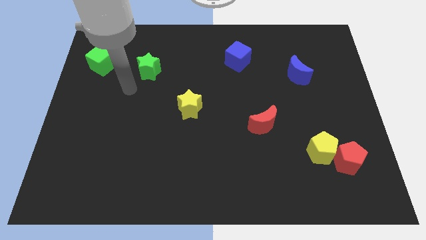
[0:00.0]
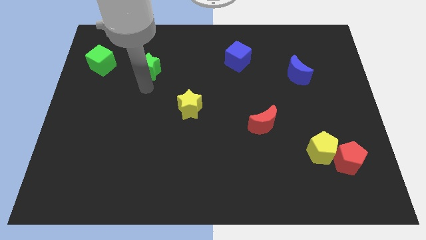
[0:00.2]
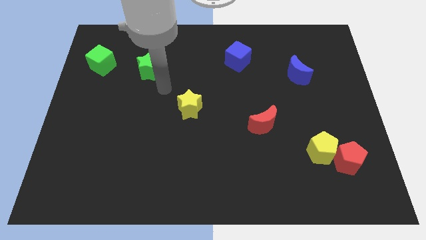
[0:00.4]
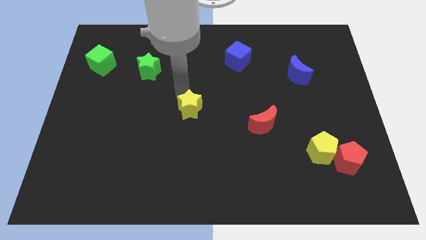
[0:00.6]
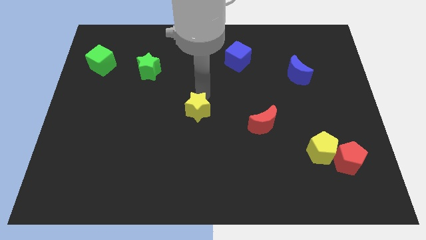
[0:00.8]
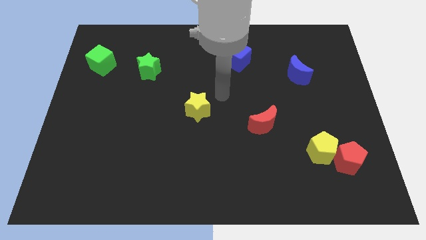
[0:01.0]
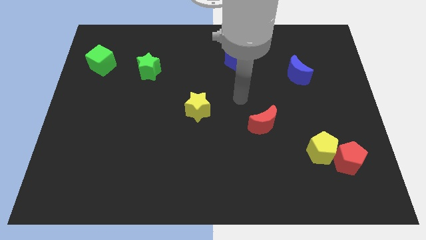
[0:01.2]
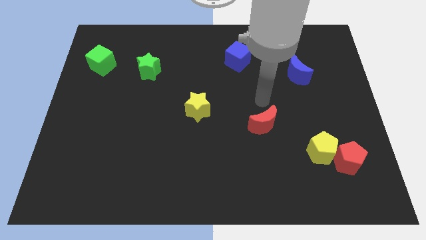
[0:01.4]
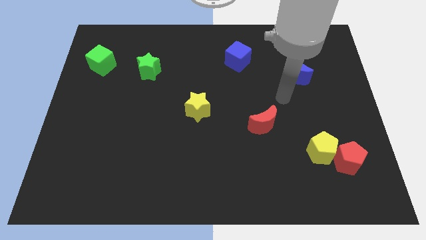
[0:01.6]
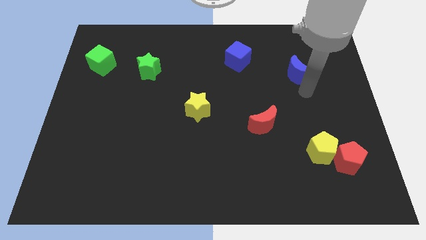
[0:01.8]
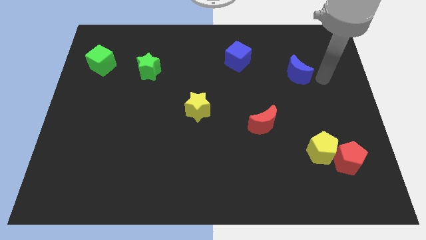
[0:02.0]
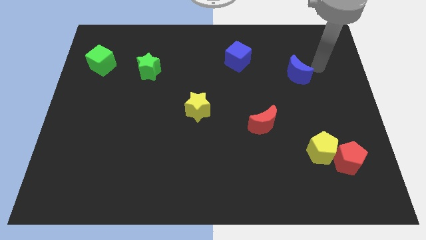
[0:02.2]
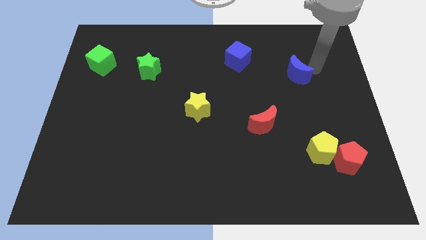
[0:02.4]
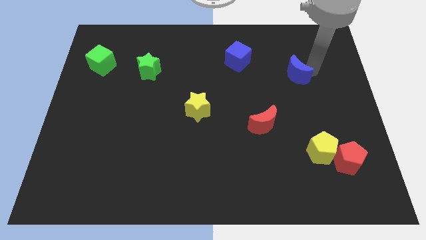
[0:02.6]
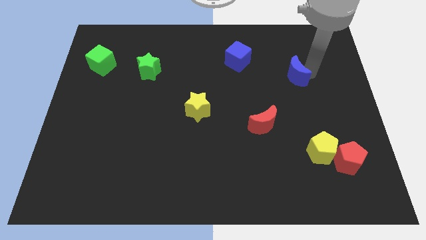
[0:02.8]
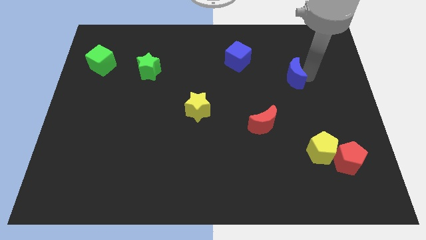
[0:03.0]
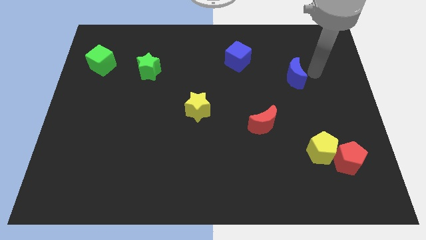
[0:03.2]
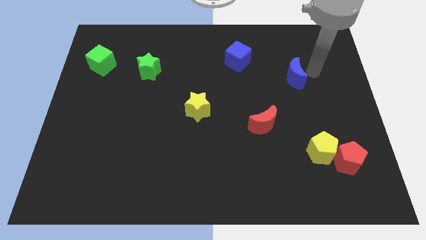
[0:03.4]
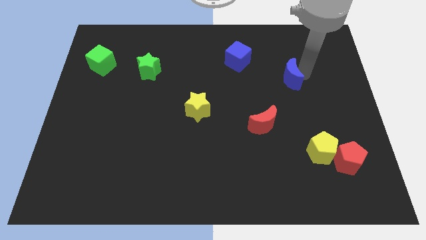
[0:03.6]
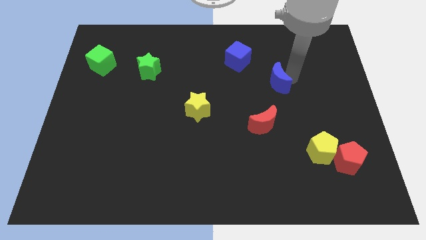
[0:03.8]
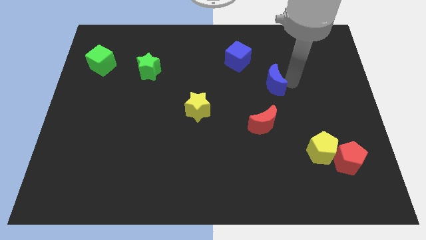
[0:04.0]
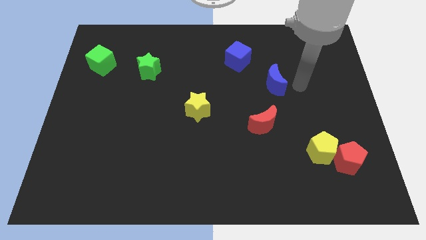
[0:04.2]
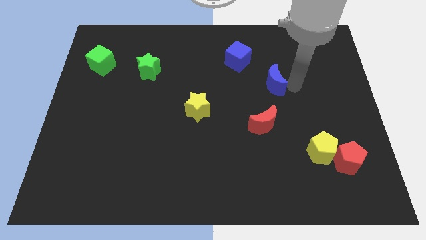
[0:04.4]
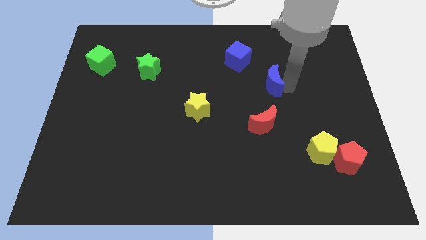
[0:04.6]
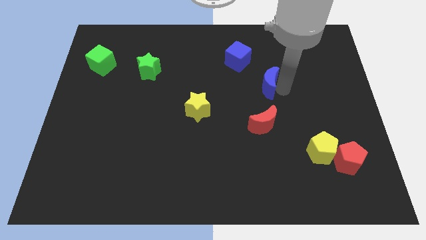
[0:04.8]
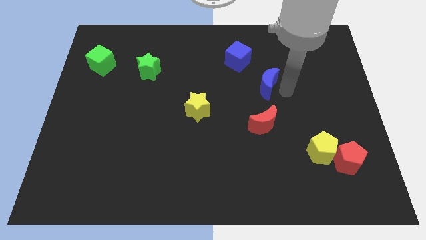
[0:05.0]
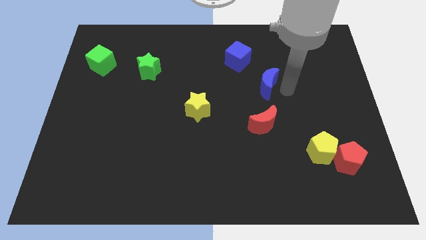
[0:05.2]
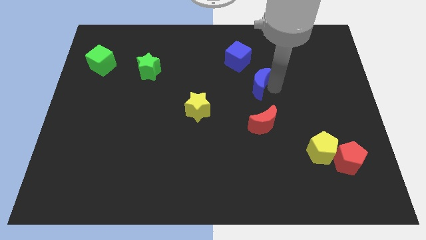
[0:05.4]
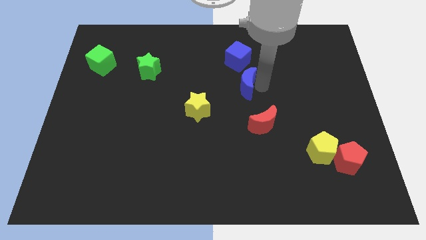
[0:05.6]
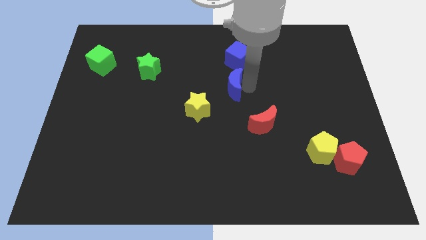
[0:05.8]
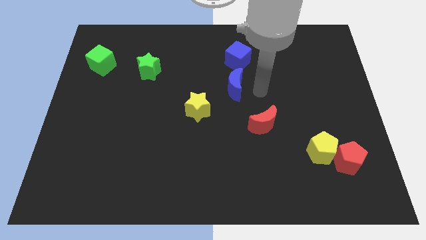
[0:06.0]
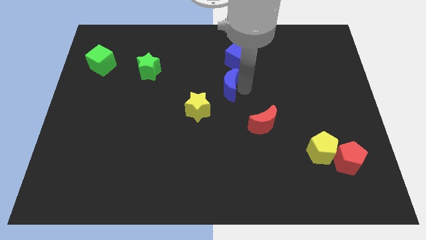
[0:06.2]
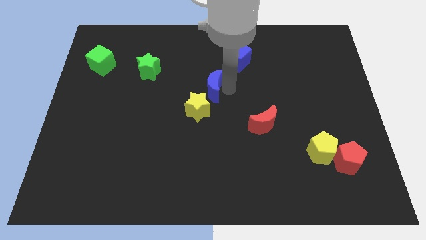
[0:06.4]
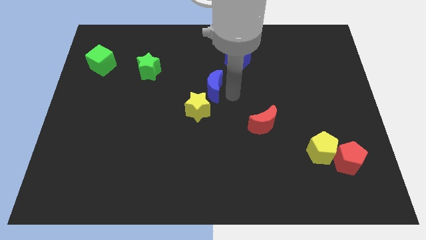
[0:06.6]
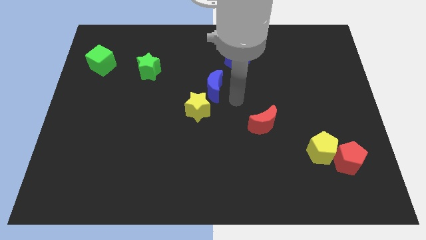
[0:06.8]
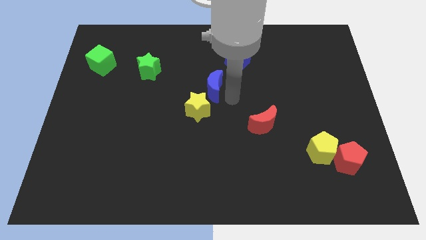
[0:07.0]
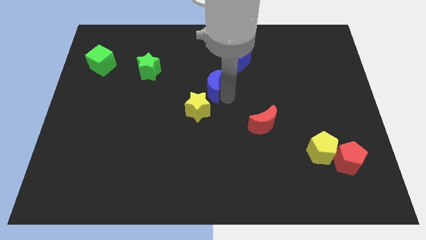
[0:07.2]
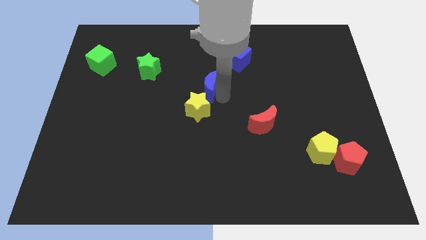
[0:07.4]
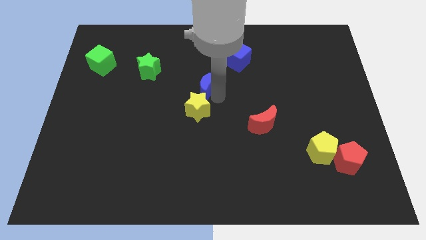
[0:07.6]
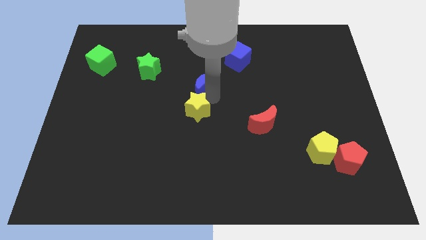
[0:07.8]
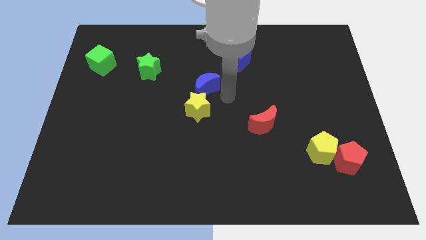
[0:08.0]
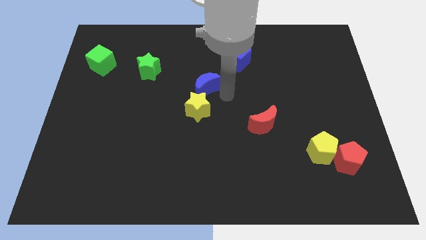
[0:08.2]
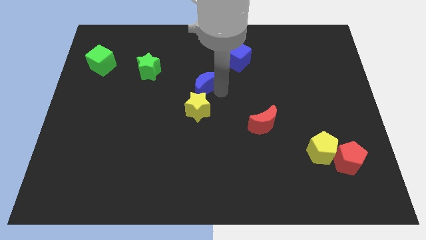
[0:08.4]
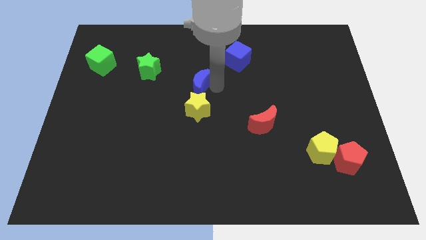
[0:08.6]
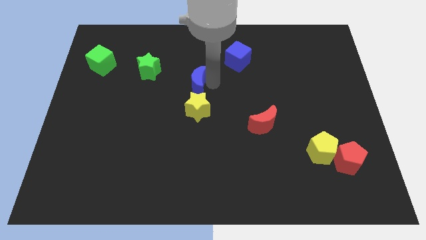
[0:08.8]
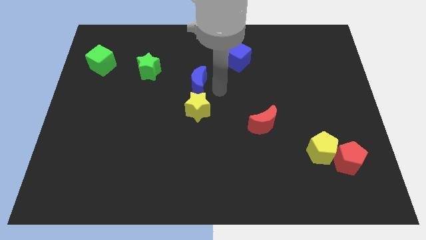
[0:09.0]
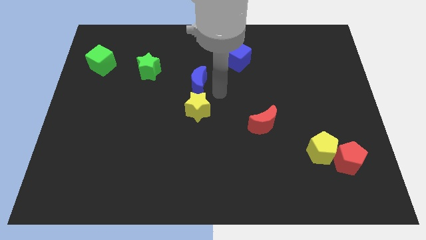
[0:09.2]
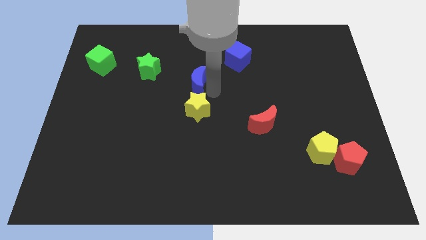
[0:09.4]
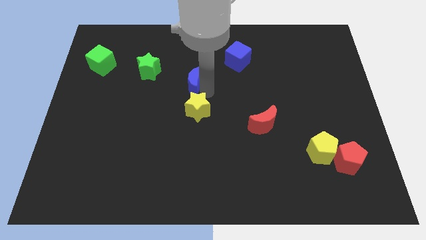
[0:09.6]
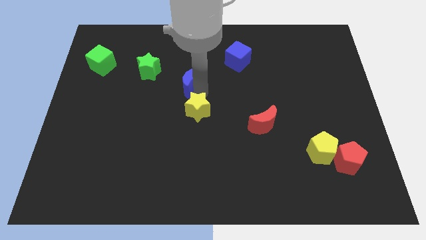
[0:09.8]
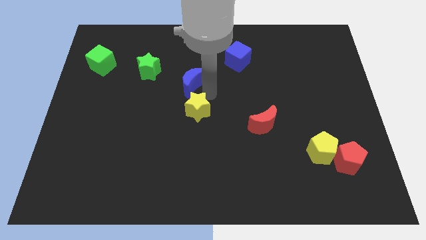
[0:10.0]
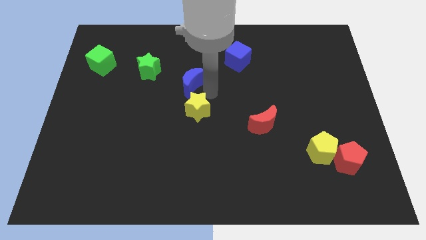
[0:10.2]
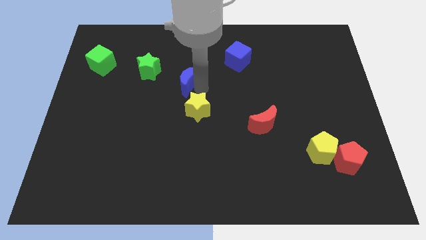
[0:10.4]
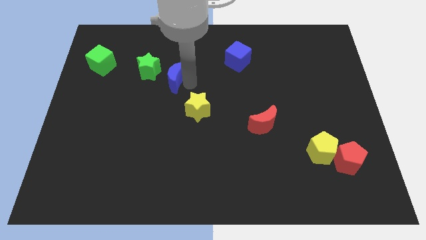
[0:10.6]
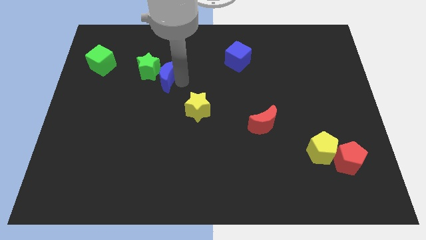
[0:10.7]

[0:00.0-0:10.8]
move the blue moon close to the green star

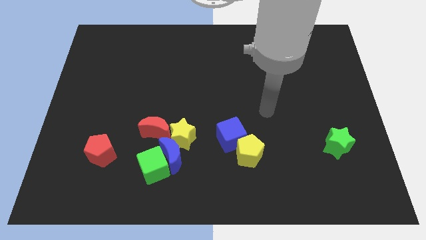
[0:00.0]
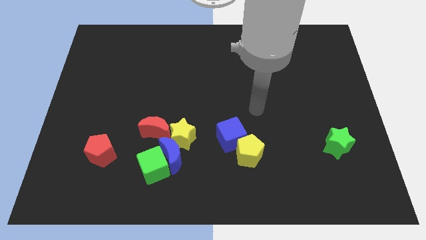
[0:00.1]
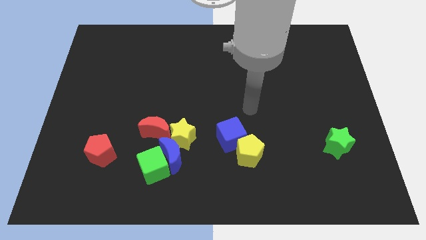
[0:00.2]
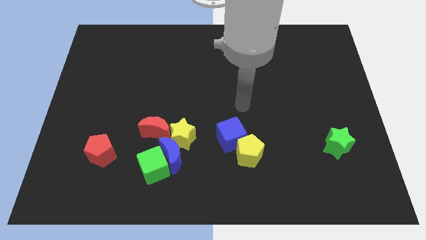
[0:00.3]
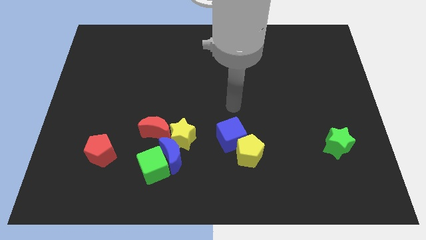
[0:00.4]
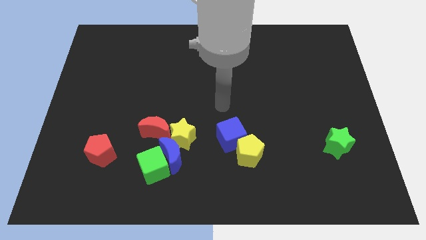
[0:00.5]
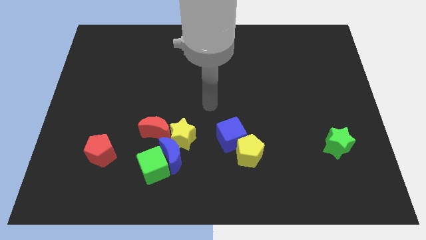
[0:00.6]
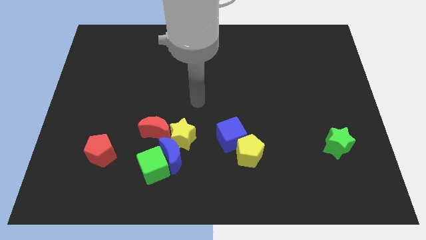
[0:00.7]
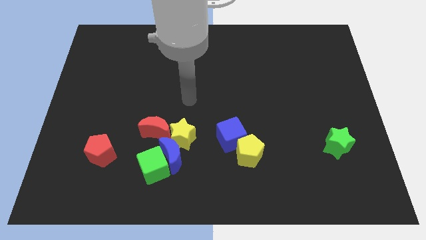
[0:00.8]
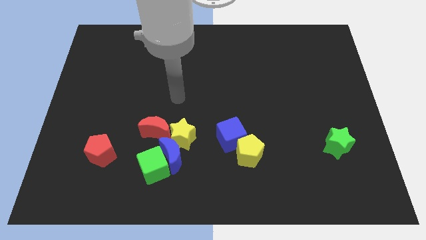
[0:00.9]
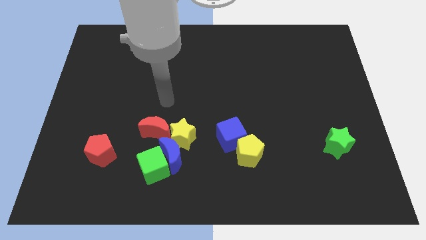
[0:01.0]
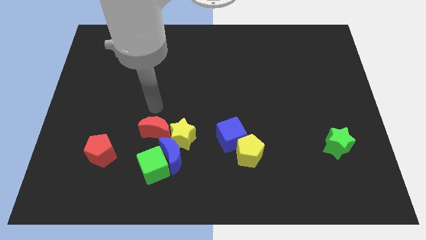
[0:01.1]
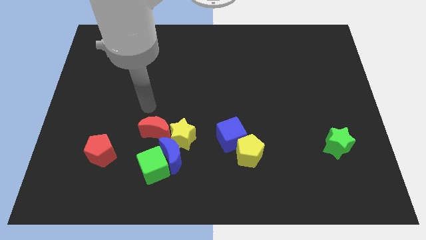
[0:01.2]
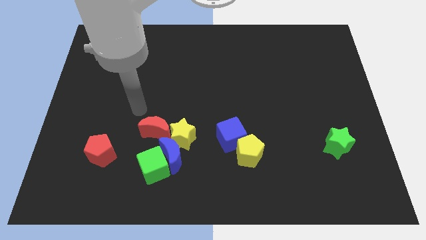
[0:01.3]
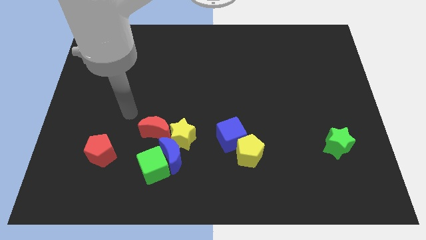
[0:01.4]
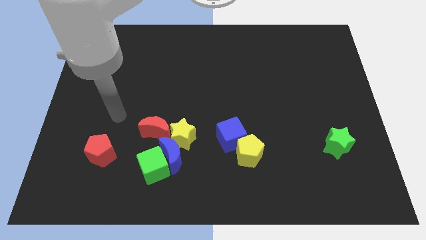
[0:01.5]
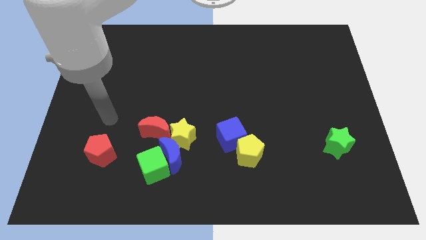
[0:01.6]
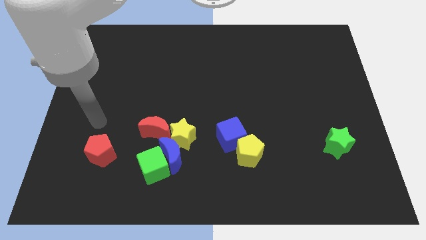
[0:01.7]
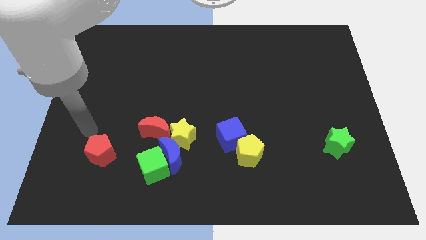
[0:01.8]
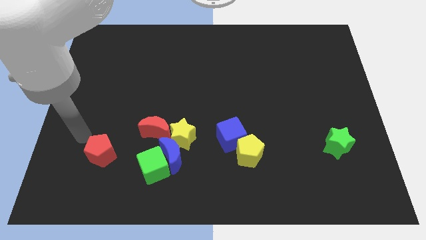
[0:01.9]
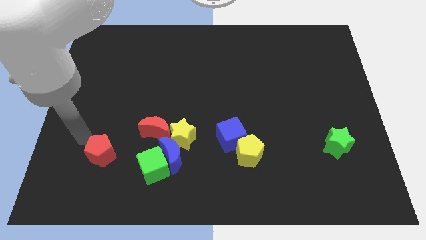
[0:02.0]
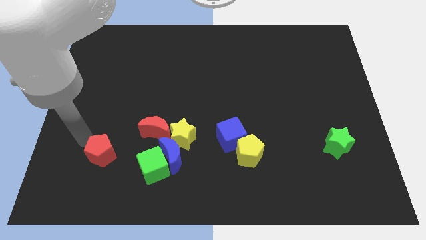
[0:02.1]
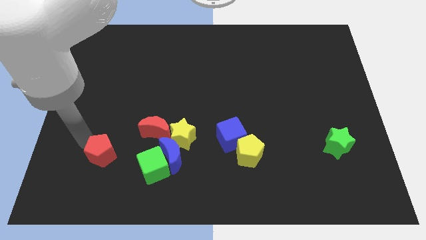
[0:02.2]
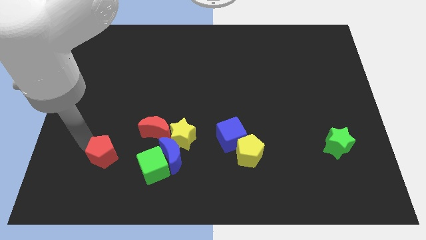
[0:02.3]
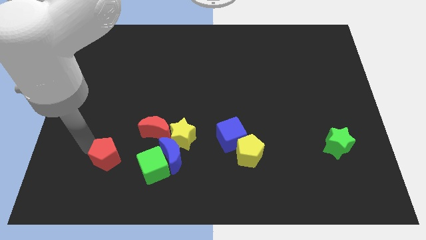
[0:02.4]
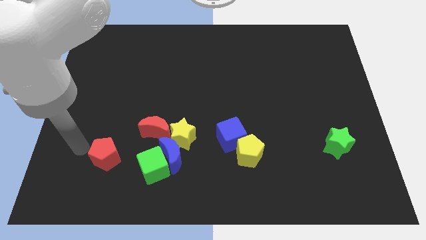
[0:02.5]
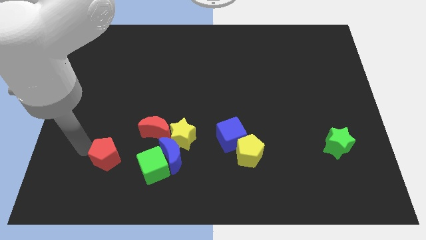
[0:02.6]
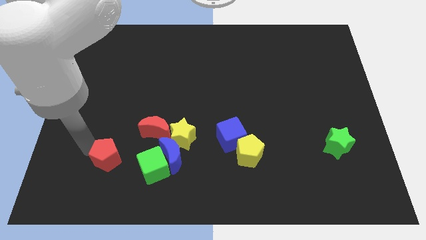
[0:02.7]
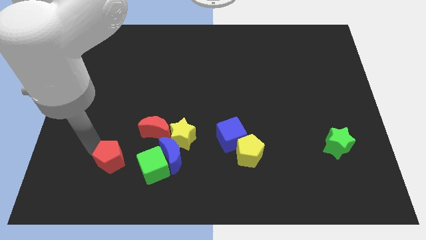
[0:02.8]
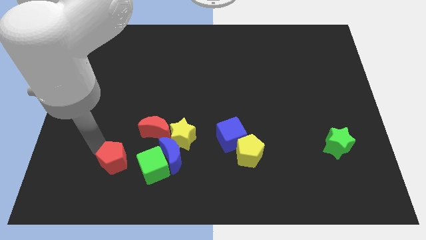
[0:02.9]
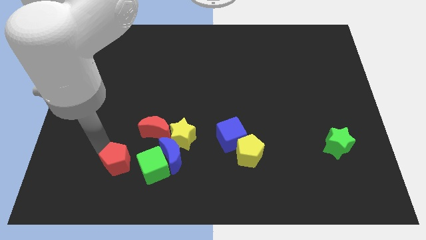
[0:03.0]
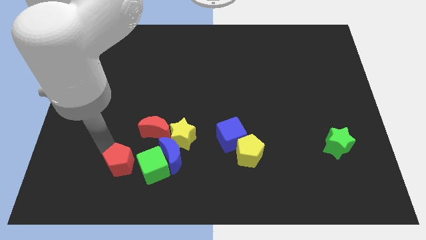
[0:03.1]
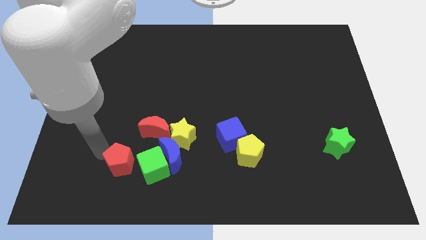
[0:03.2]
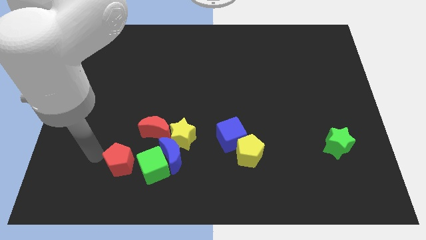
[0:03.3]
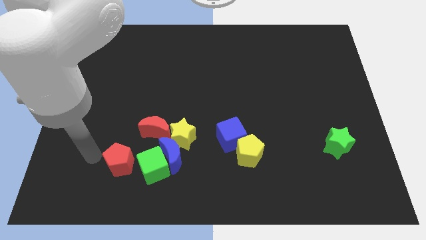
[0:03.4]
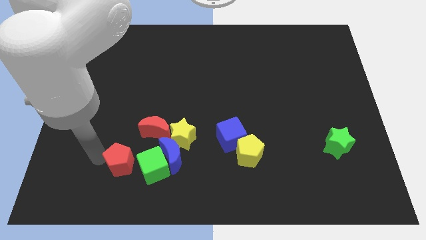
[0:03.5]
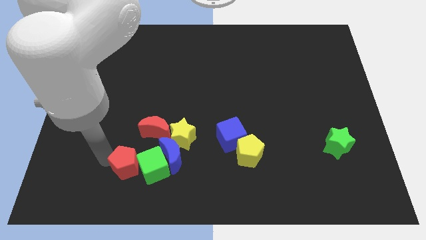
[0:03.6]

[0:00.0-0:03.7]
put the red pentagon close to the green cube
